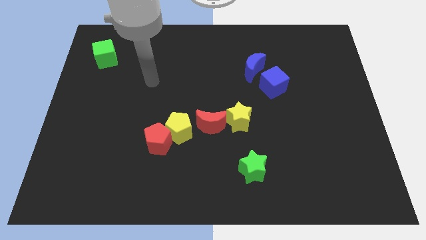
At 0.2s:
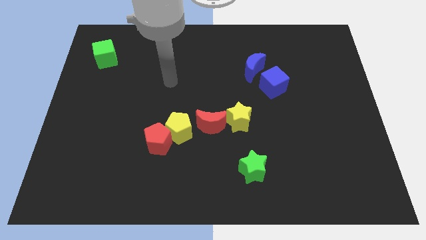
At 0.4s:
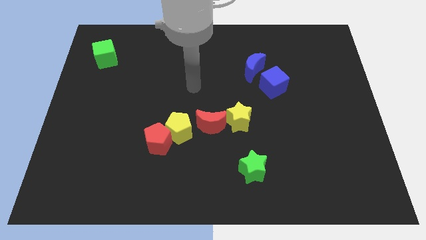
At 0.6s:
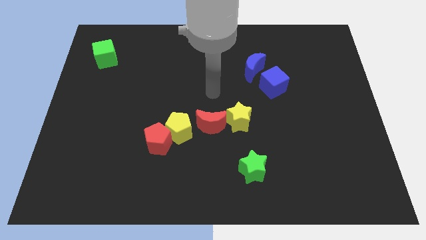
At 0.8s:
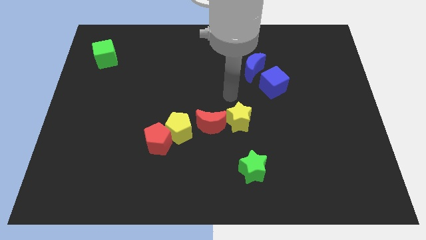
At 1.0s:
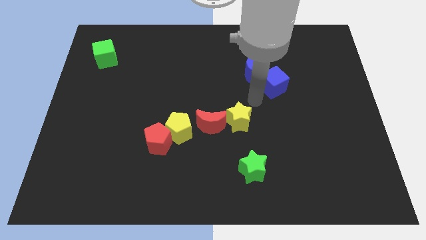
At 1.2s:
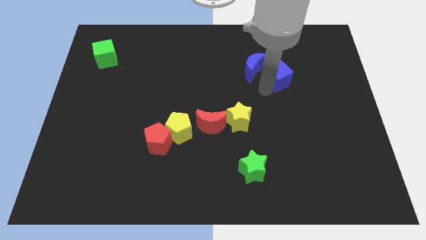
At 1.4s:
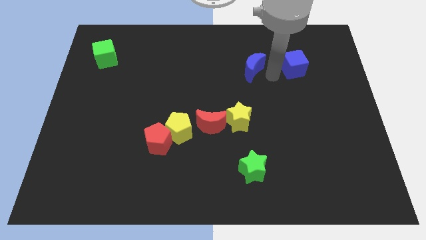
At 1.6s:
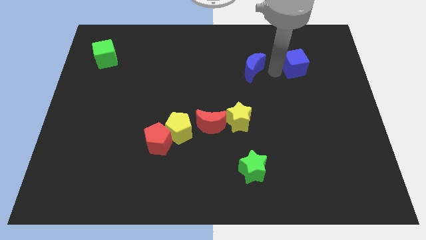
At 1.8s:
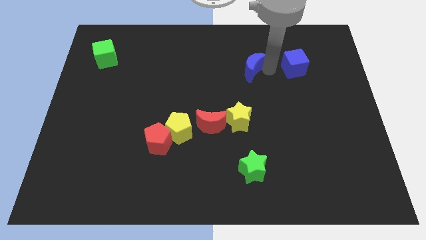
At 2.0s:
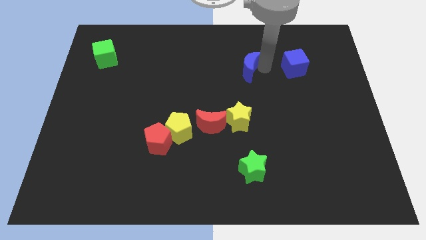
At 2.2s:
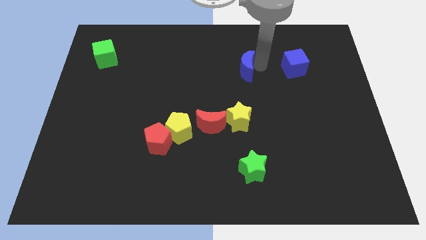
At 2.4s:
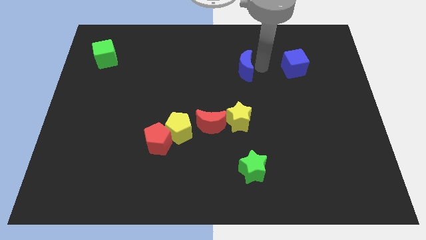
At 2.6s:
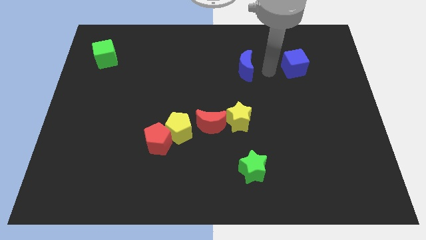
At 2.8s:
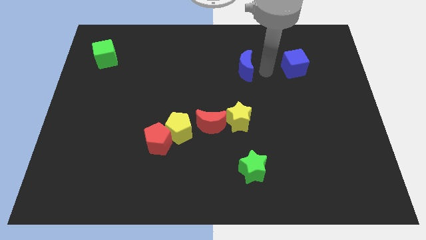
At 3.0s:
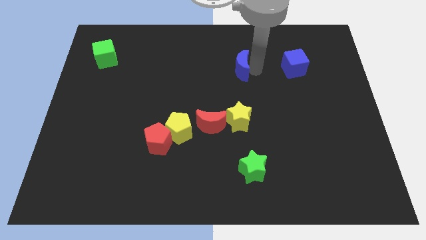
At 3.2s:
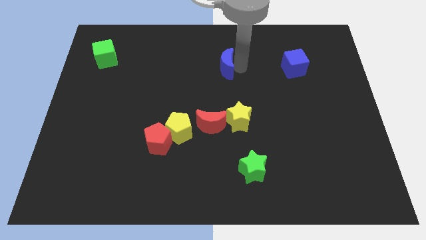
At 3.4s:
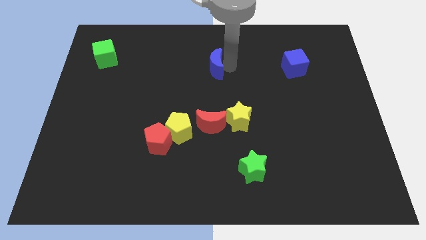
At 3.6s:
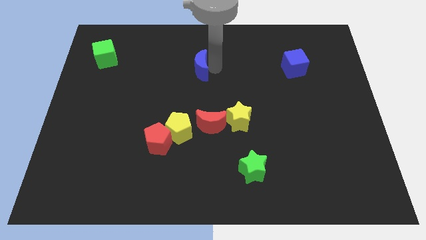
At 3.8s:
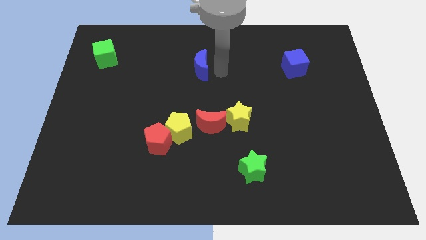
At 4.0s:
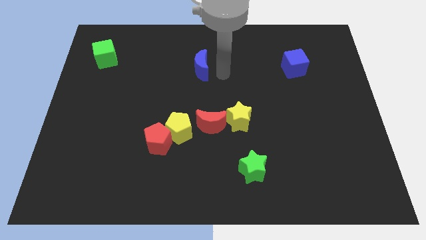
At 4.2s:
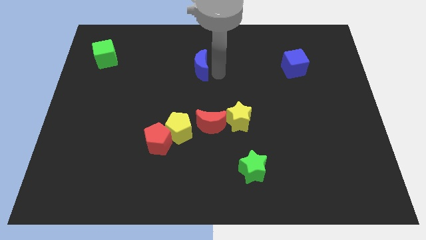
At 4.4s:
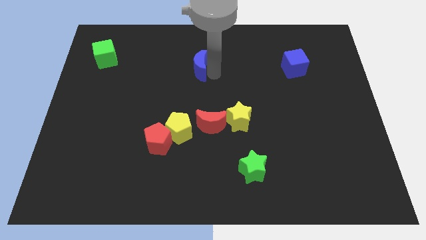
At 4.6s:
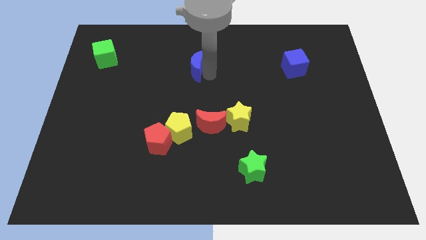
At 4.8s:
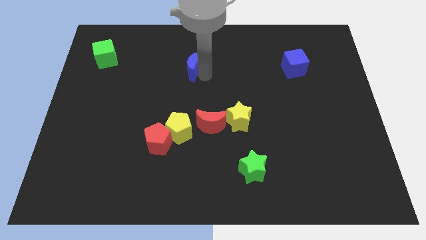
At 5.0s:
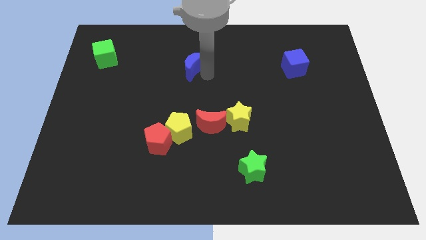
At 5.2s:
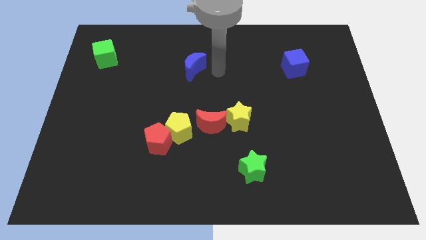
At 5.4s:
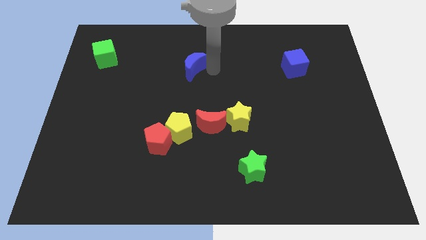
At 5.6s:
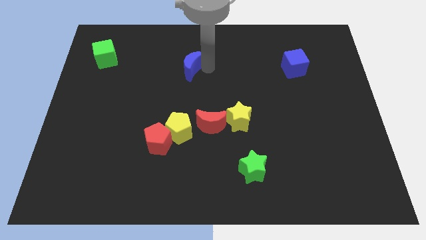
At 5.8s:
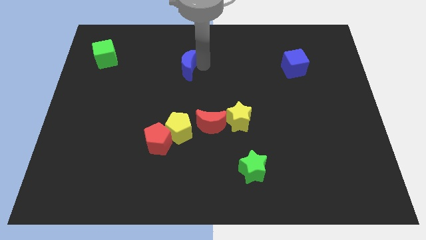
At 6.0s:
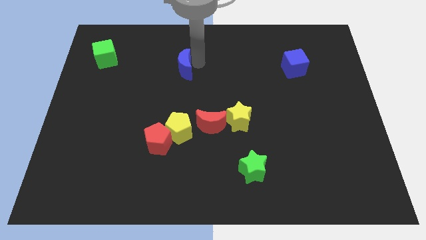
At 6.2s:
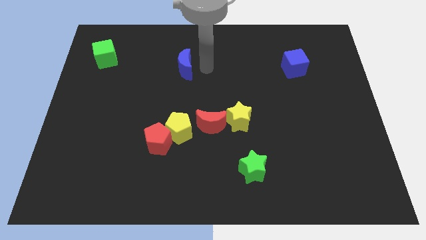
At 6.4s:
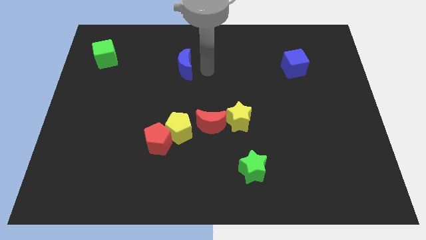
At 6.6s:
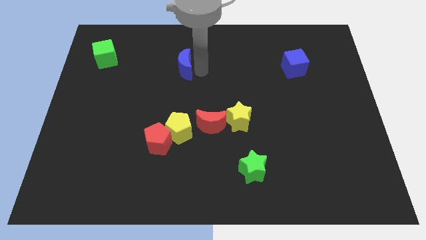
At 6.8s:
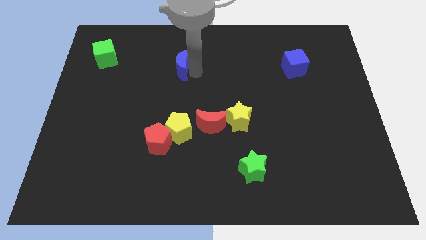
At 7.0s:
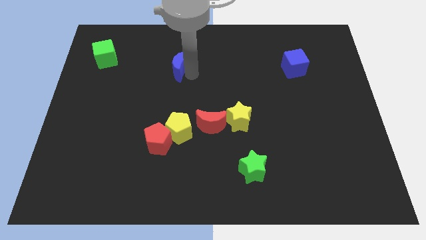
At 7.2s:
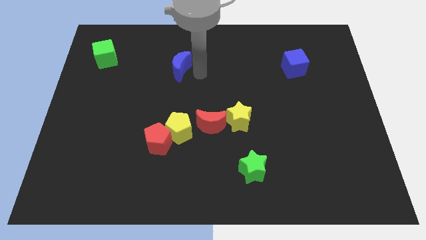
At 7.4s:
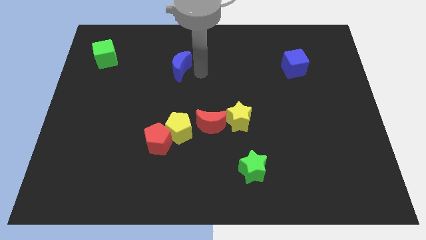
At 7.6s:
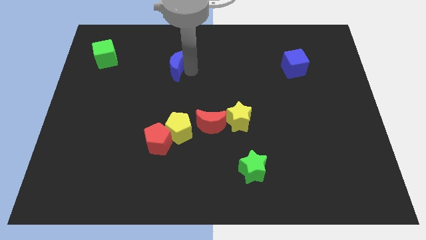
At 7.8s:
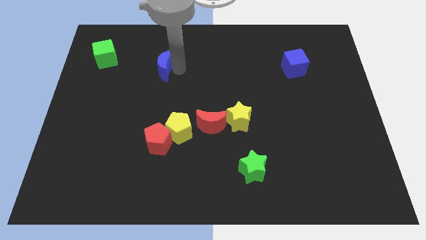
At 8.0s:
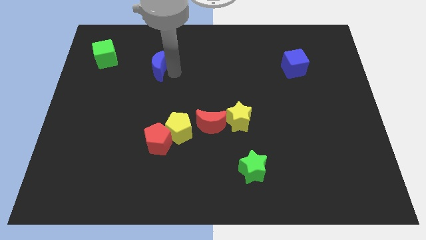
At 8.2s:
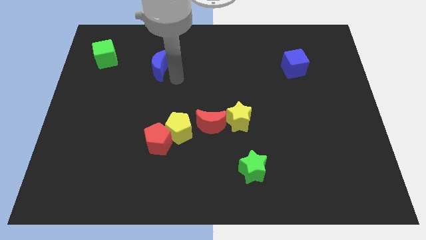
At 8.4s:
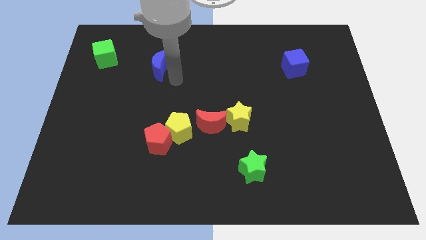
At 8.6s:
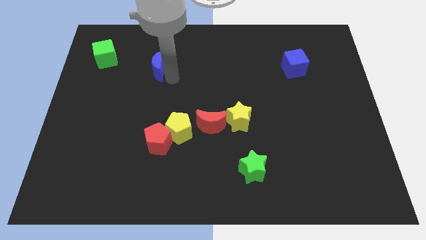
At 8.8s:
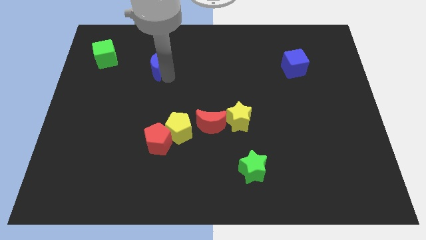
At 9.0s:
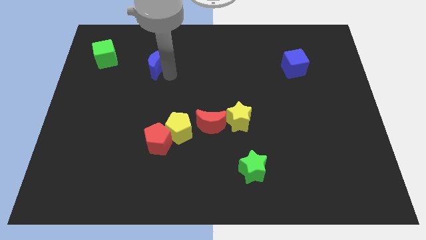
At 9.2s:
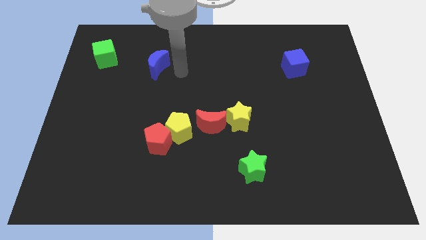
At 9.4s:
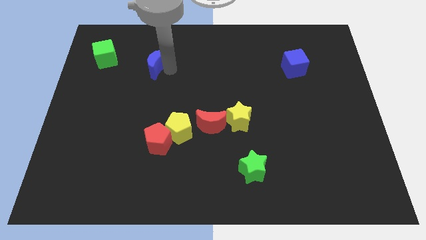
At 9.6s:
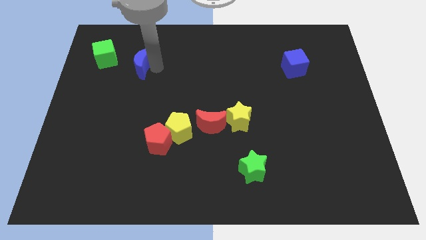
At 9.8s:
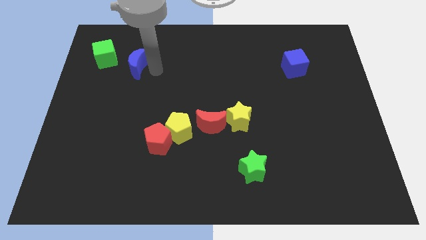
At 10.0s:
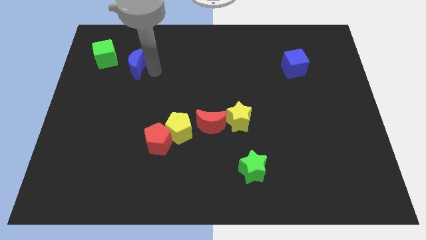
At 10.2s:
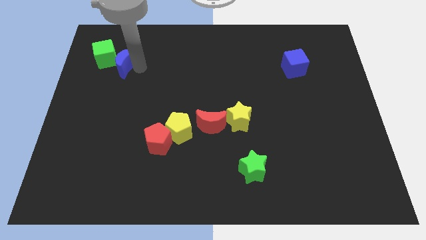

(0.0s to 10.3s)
put the blue moon close to the green cube

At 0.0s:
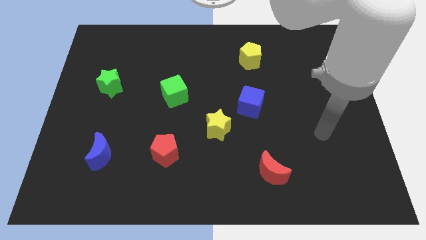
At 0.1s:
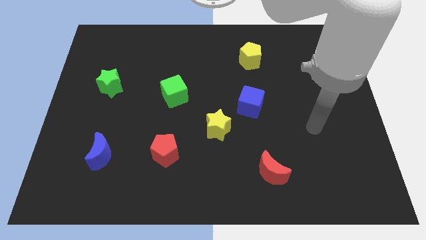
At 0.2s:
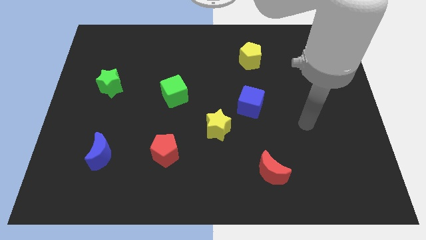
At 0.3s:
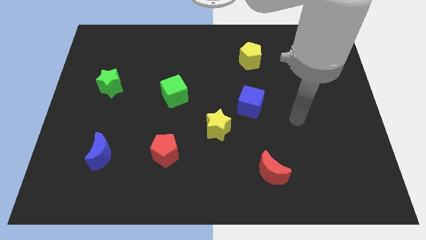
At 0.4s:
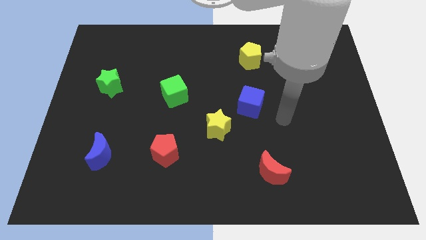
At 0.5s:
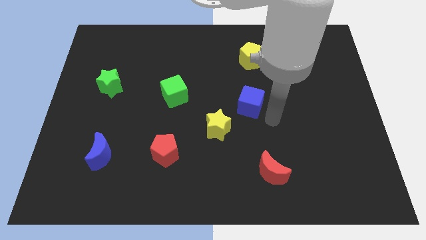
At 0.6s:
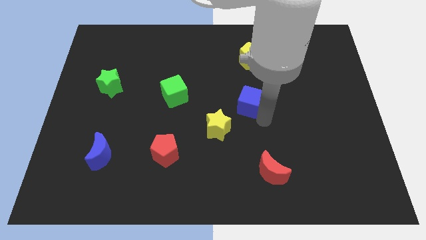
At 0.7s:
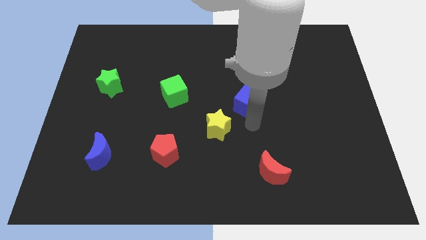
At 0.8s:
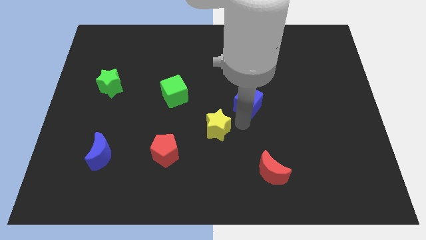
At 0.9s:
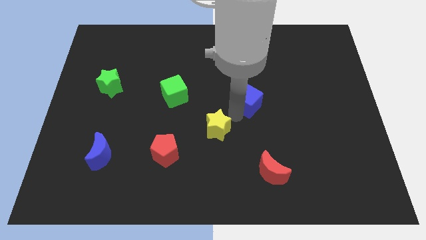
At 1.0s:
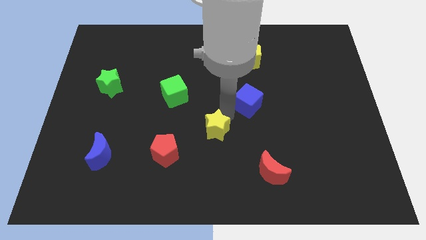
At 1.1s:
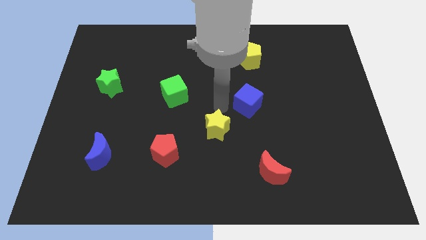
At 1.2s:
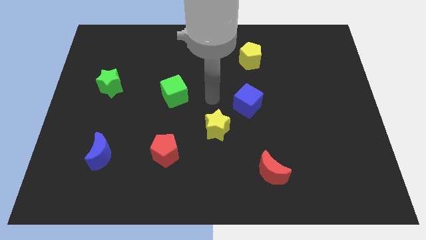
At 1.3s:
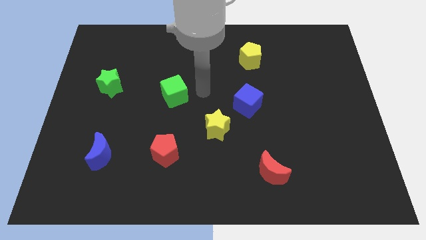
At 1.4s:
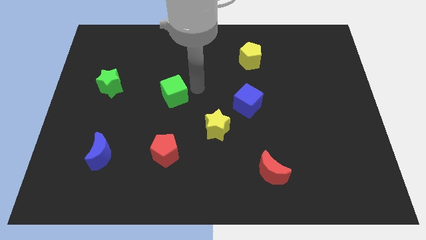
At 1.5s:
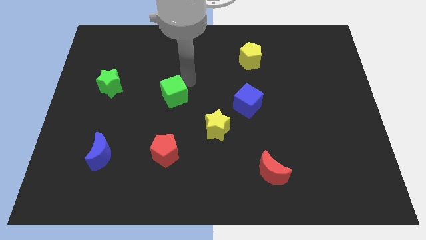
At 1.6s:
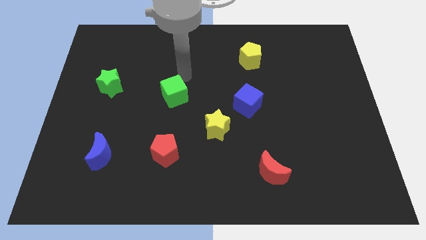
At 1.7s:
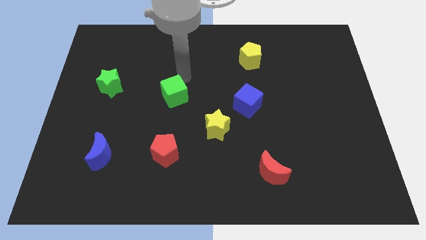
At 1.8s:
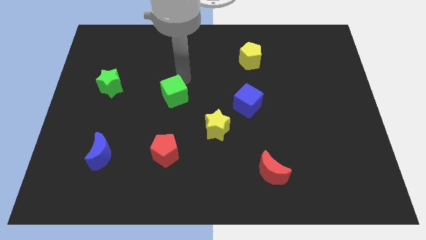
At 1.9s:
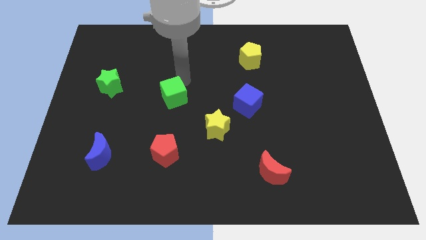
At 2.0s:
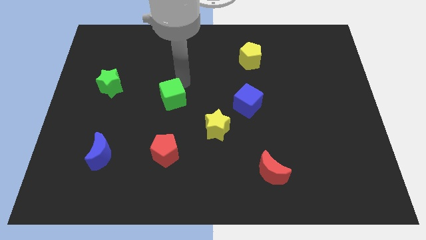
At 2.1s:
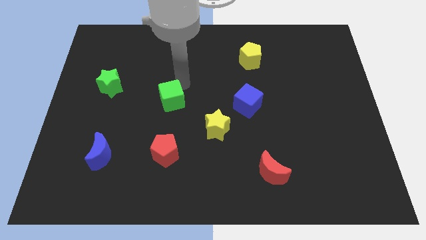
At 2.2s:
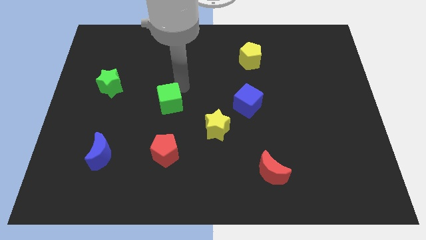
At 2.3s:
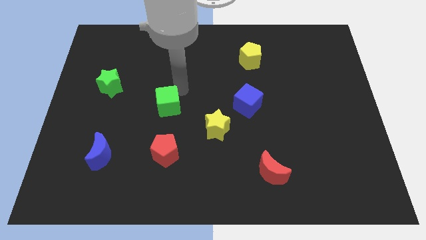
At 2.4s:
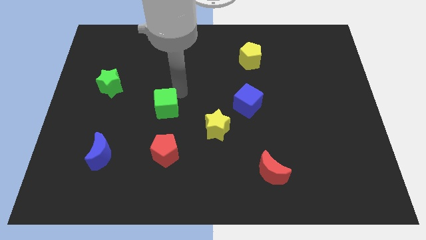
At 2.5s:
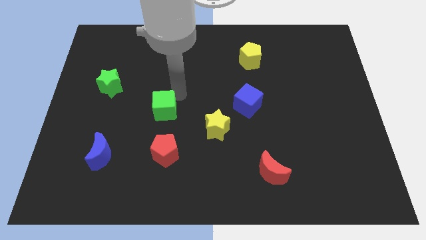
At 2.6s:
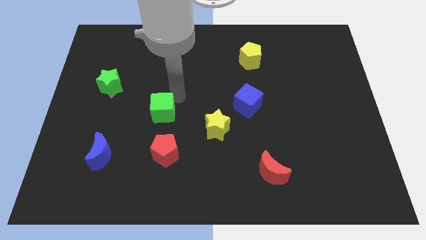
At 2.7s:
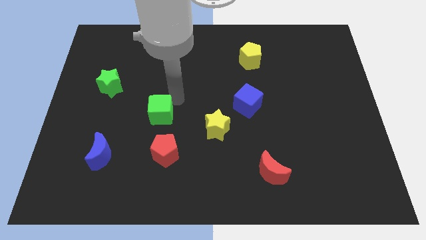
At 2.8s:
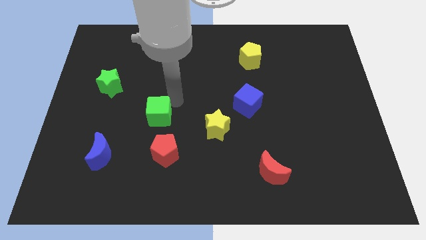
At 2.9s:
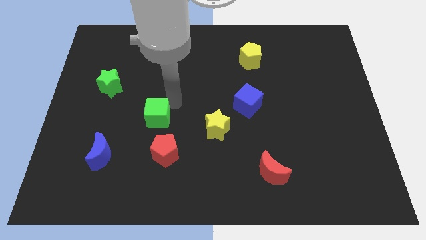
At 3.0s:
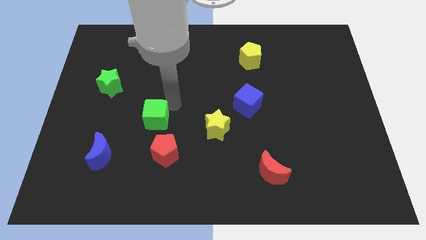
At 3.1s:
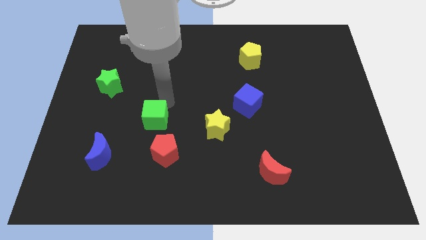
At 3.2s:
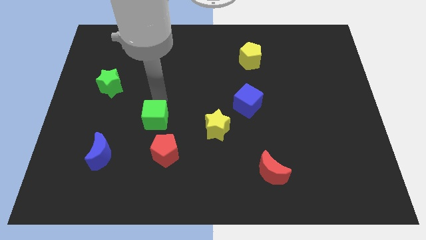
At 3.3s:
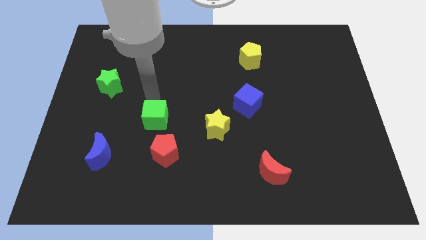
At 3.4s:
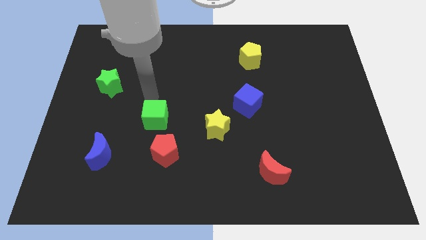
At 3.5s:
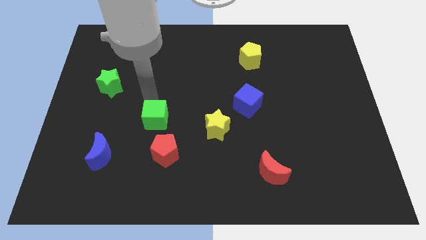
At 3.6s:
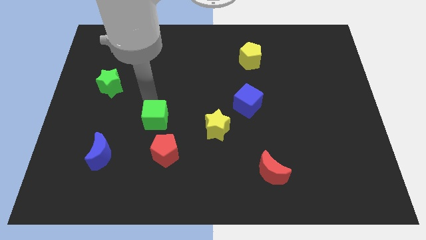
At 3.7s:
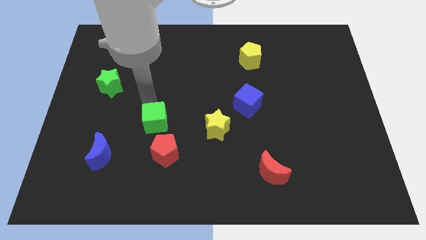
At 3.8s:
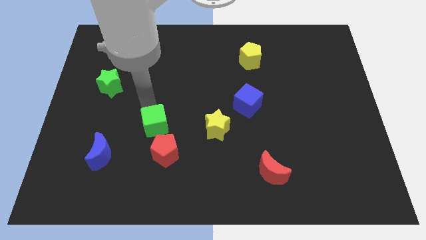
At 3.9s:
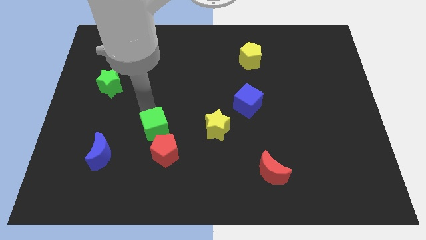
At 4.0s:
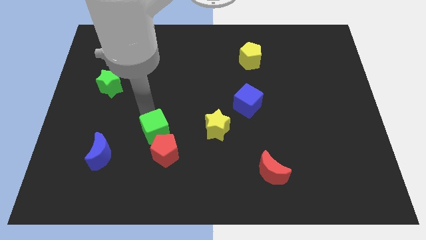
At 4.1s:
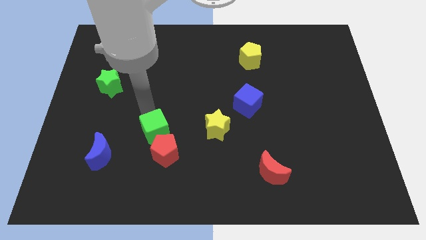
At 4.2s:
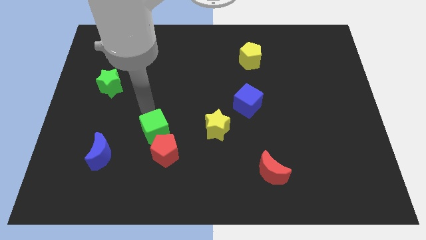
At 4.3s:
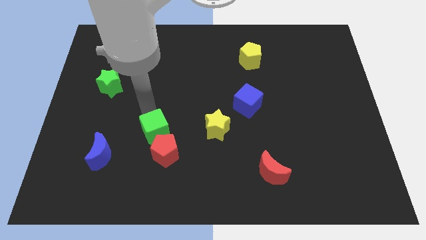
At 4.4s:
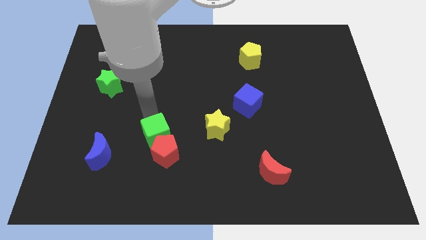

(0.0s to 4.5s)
push the green cube to the red pentagon
